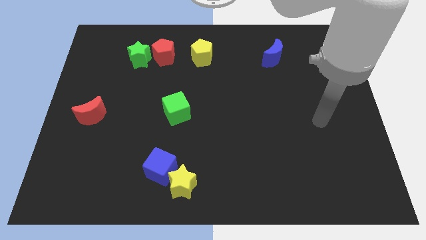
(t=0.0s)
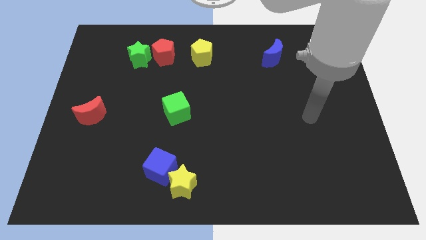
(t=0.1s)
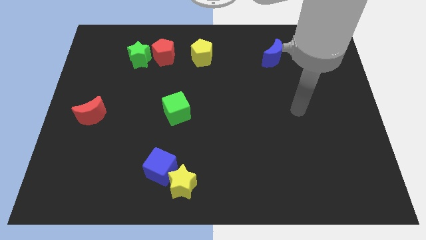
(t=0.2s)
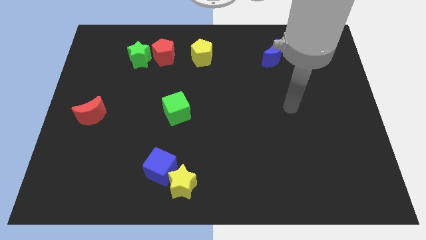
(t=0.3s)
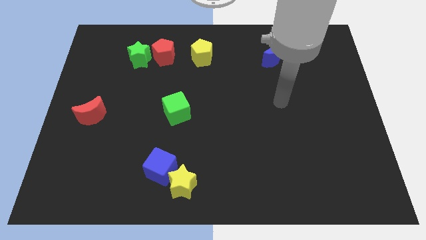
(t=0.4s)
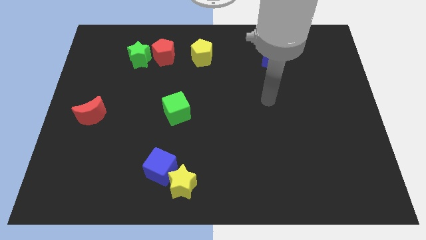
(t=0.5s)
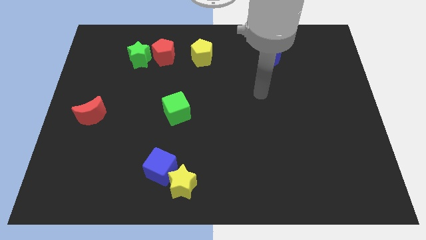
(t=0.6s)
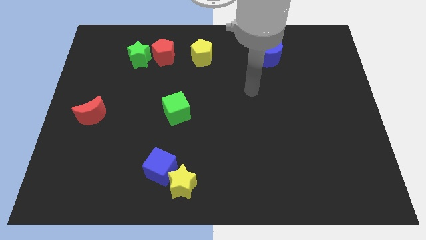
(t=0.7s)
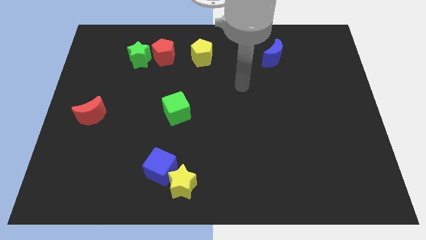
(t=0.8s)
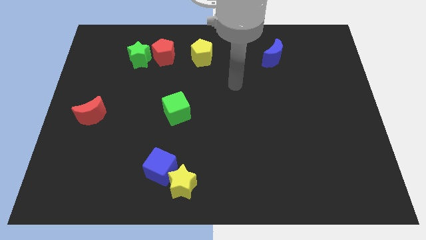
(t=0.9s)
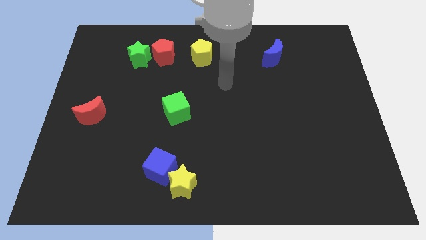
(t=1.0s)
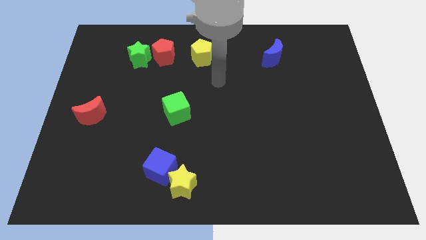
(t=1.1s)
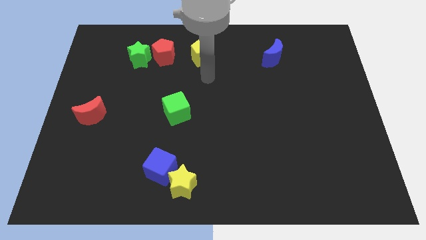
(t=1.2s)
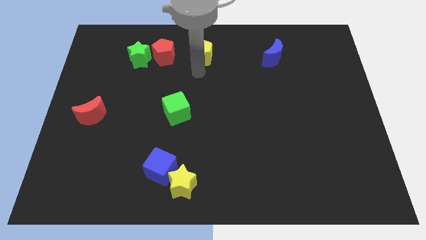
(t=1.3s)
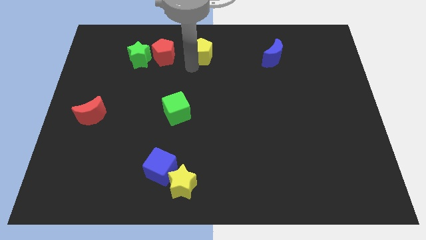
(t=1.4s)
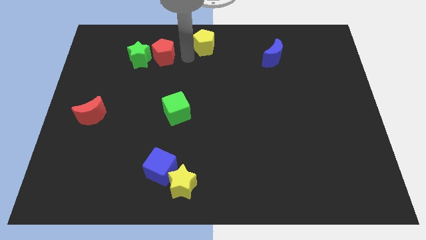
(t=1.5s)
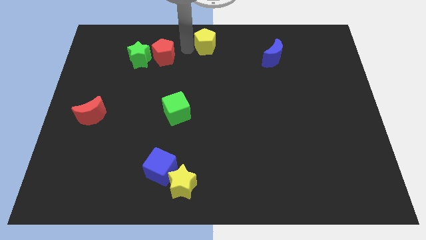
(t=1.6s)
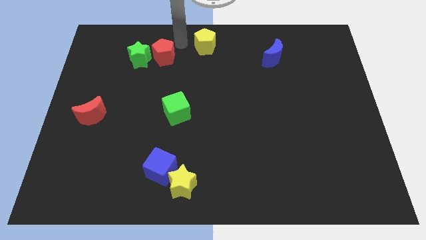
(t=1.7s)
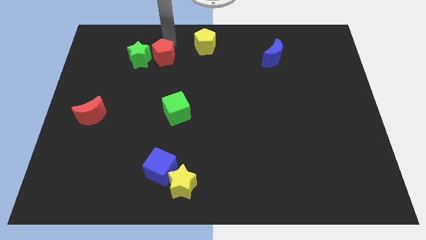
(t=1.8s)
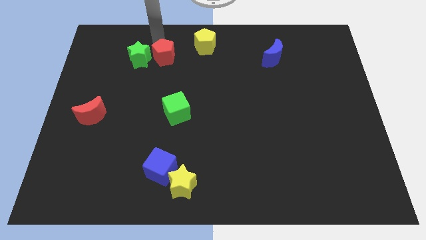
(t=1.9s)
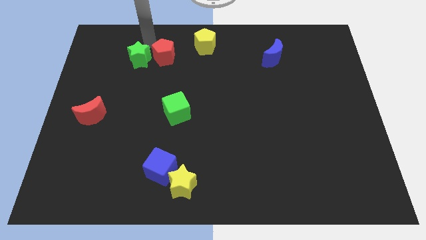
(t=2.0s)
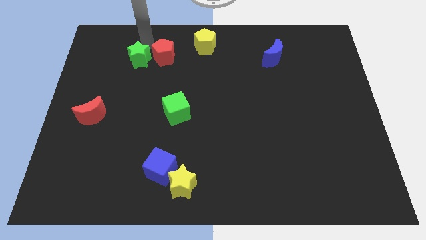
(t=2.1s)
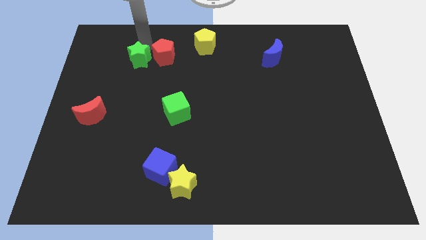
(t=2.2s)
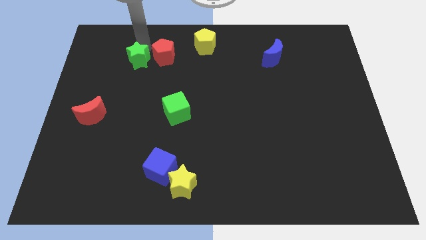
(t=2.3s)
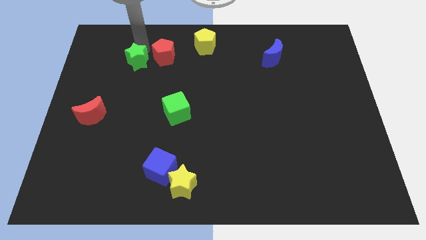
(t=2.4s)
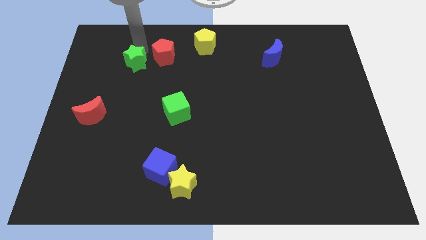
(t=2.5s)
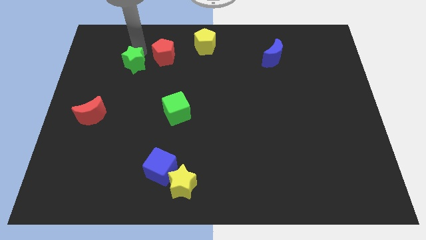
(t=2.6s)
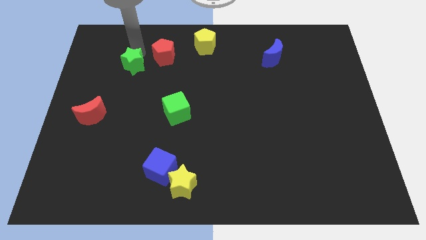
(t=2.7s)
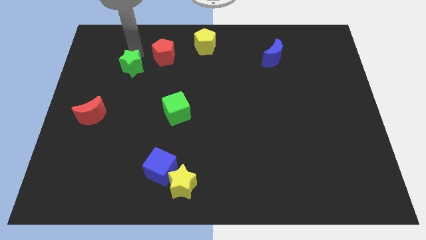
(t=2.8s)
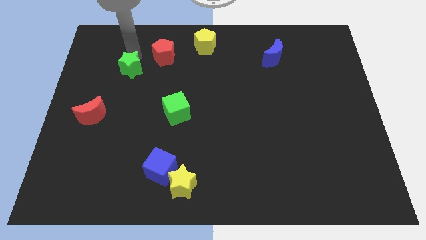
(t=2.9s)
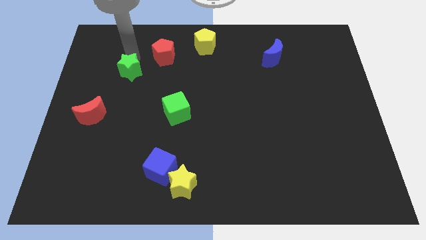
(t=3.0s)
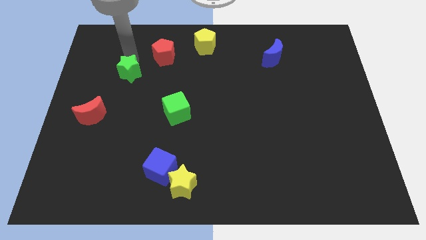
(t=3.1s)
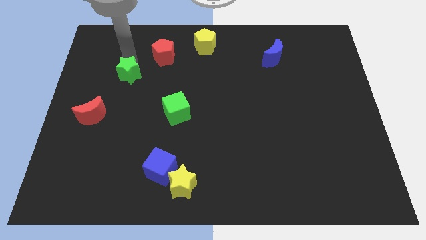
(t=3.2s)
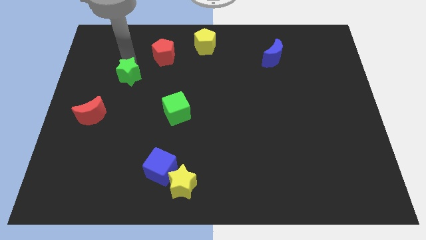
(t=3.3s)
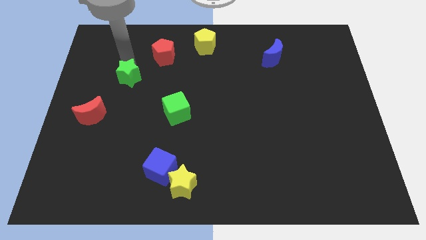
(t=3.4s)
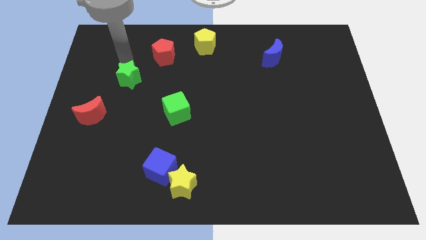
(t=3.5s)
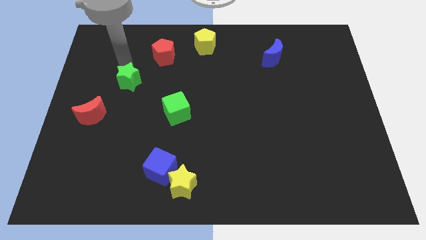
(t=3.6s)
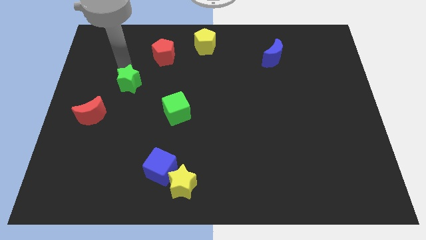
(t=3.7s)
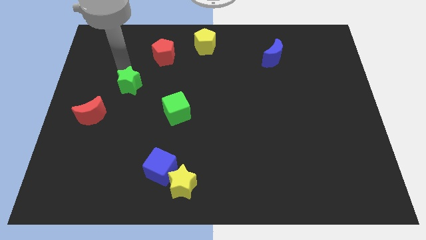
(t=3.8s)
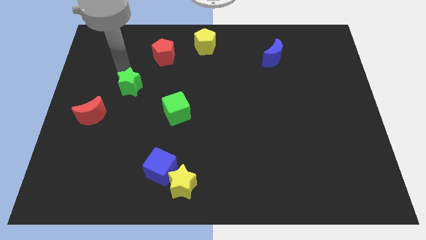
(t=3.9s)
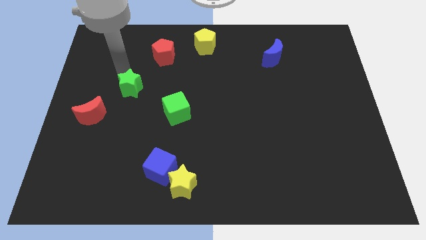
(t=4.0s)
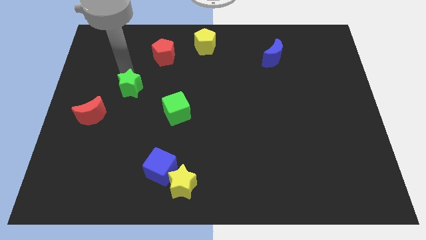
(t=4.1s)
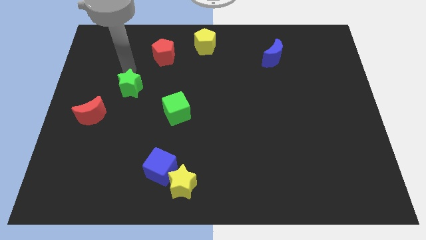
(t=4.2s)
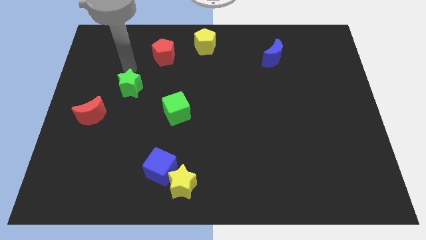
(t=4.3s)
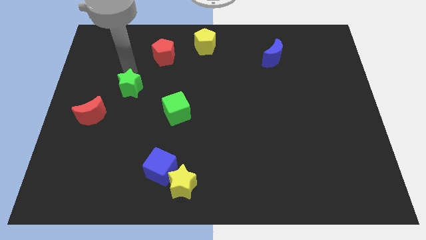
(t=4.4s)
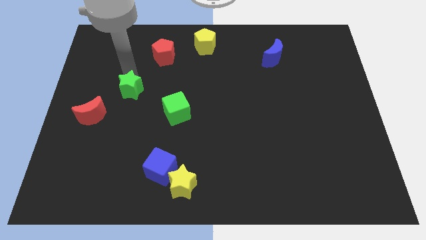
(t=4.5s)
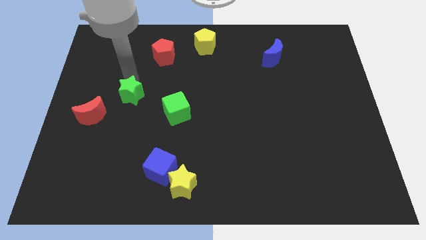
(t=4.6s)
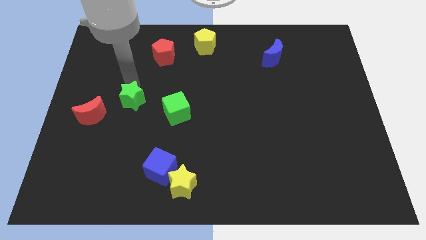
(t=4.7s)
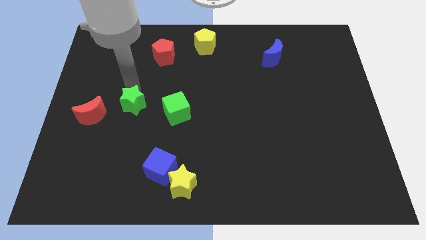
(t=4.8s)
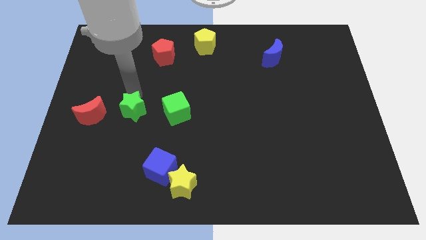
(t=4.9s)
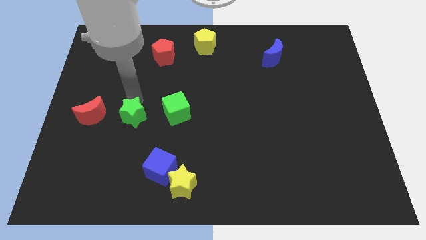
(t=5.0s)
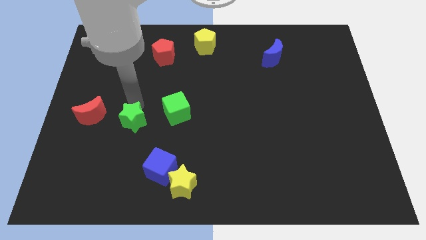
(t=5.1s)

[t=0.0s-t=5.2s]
push the green star down

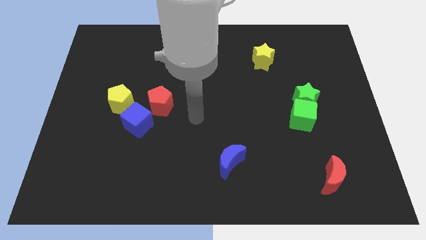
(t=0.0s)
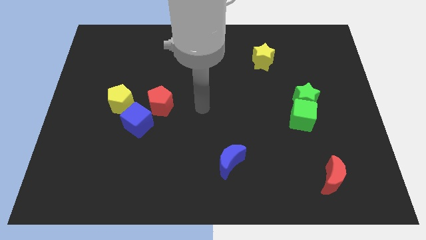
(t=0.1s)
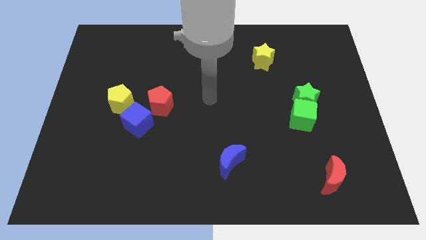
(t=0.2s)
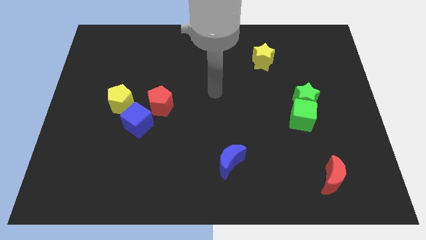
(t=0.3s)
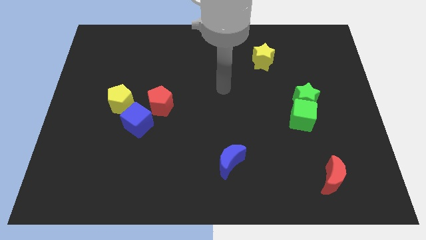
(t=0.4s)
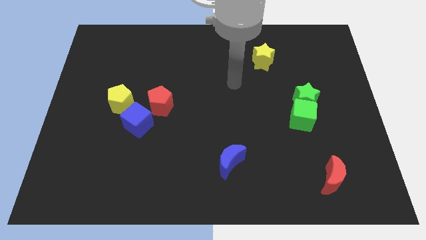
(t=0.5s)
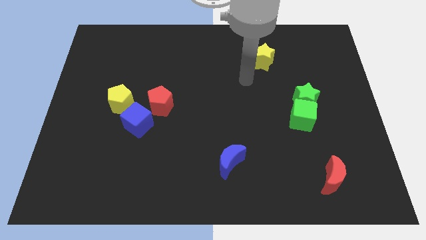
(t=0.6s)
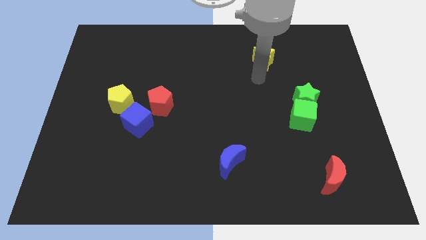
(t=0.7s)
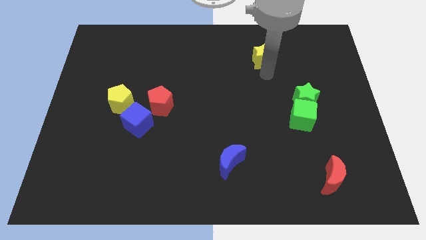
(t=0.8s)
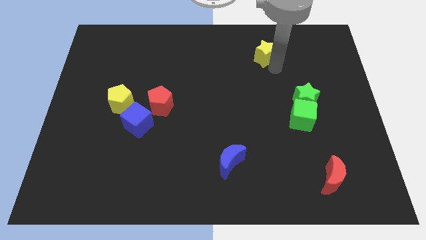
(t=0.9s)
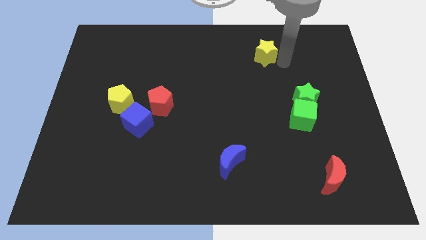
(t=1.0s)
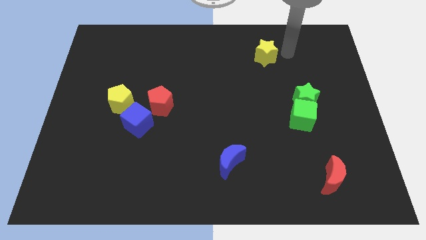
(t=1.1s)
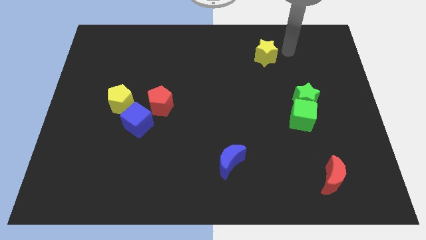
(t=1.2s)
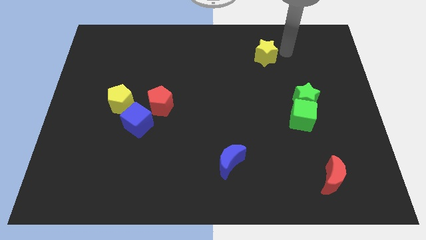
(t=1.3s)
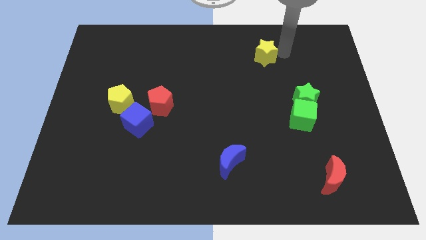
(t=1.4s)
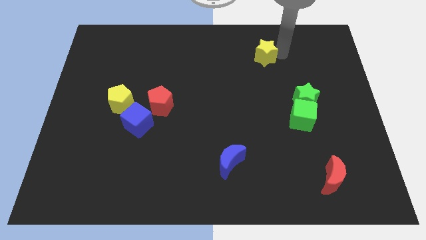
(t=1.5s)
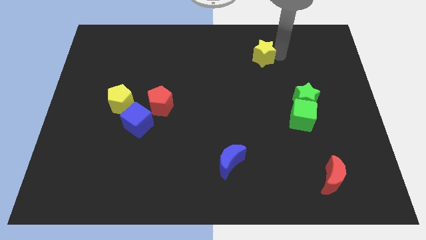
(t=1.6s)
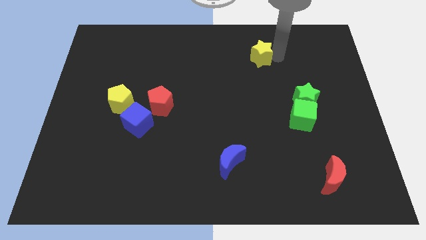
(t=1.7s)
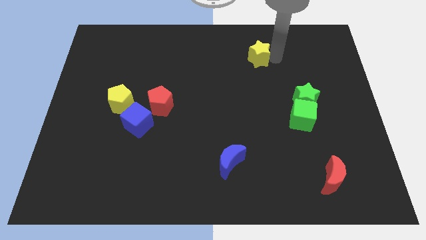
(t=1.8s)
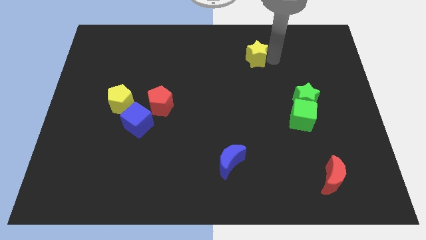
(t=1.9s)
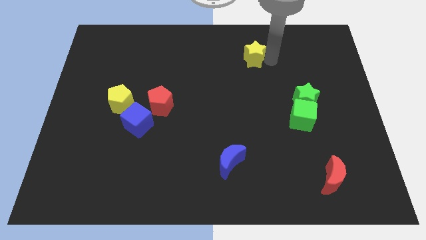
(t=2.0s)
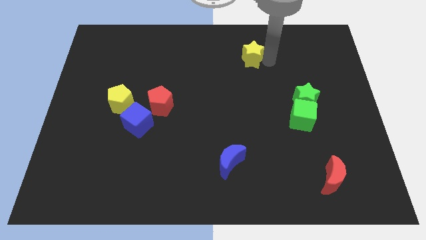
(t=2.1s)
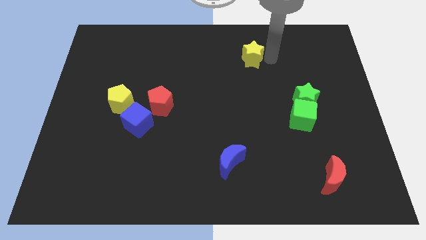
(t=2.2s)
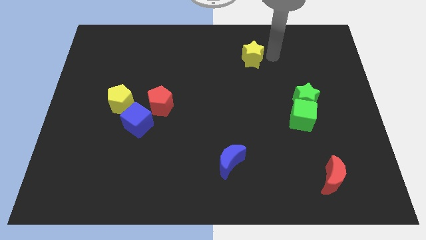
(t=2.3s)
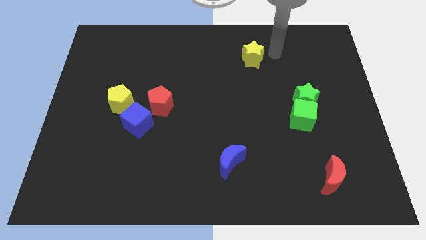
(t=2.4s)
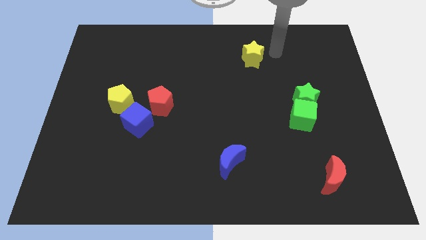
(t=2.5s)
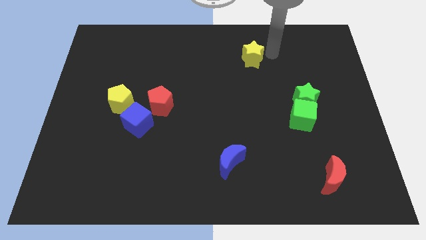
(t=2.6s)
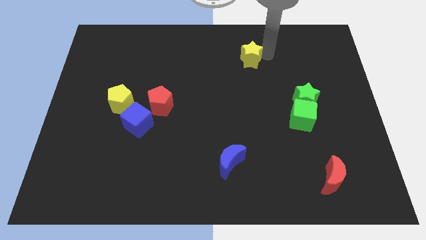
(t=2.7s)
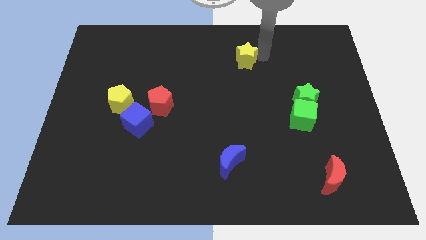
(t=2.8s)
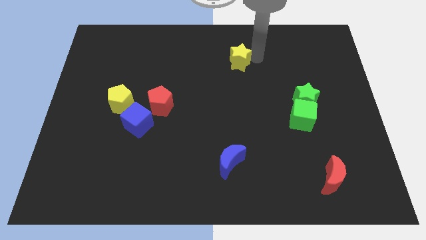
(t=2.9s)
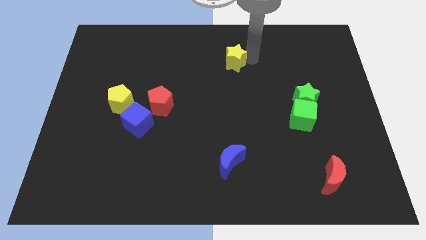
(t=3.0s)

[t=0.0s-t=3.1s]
slightly push the yellow star left

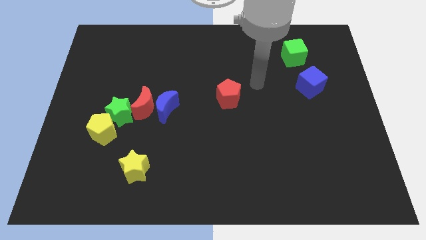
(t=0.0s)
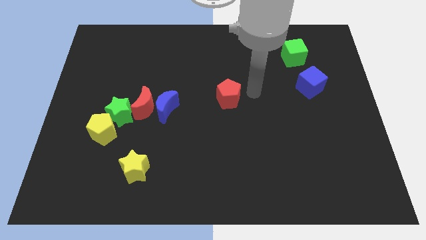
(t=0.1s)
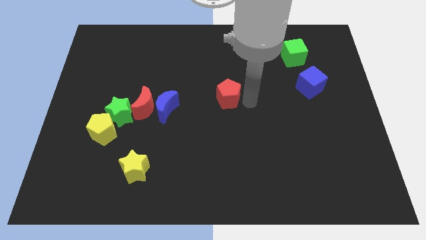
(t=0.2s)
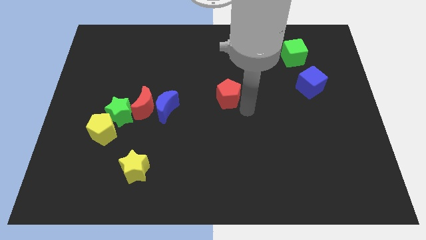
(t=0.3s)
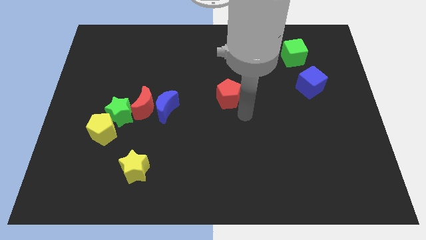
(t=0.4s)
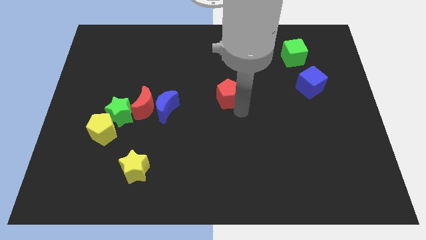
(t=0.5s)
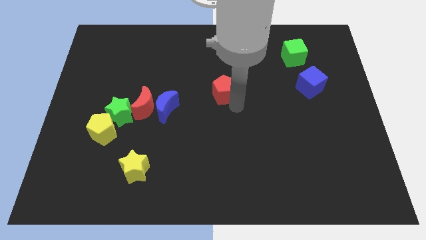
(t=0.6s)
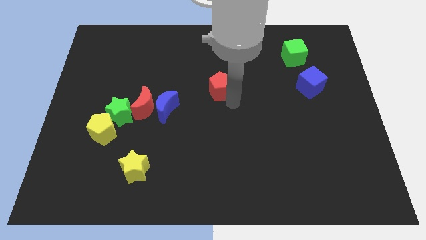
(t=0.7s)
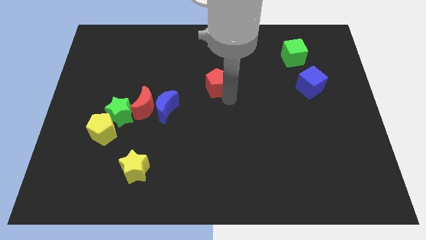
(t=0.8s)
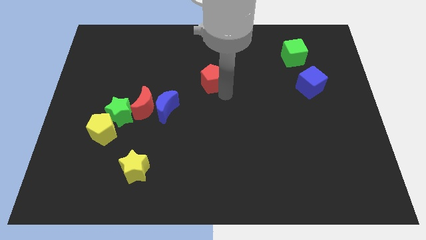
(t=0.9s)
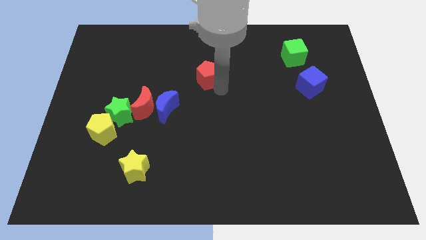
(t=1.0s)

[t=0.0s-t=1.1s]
slightly push the red pentagon upwards and to the left diagonally
